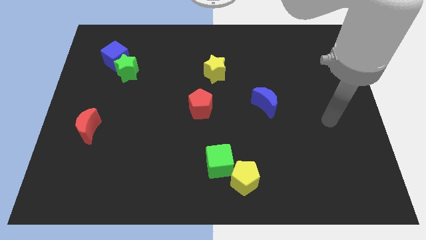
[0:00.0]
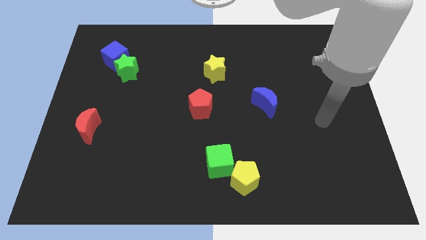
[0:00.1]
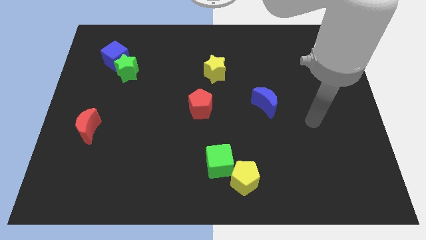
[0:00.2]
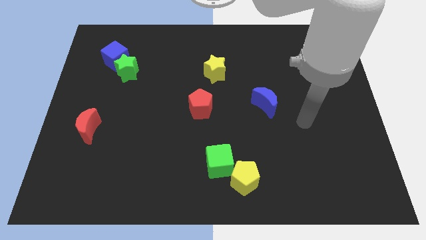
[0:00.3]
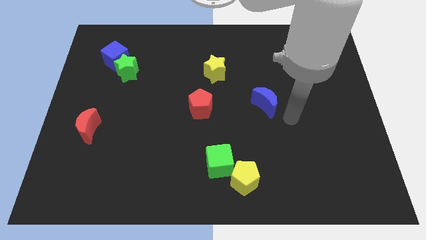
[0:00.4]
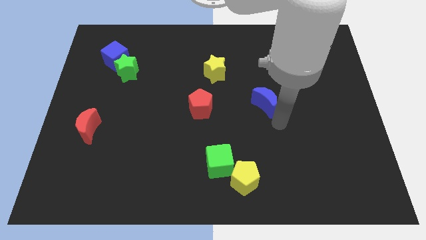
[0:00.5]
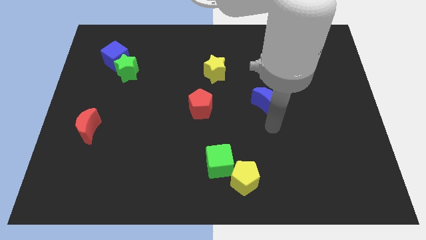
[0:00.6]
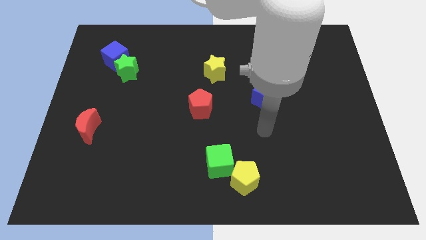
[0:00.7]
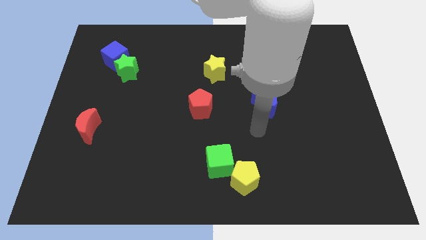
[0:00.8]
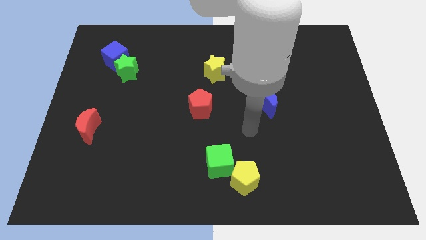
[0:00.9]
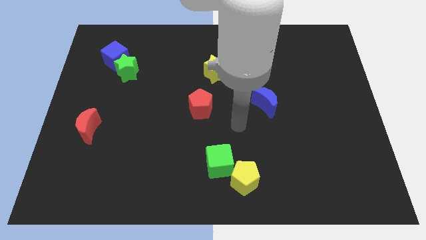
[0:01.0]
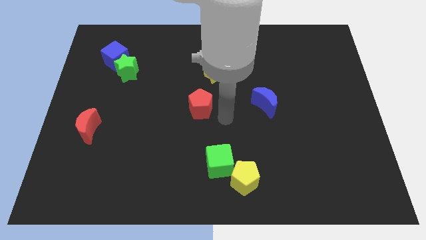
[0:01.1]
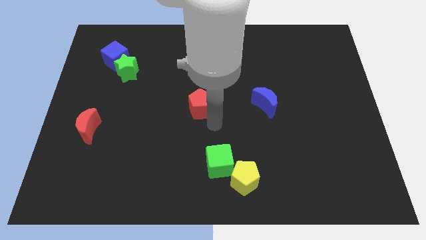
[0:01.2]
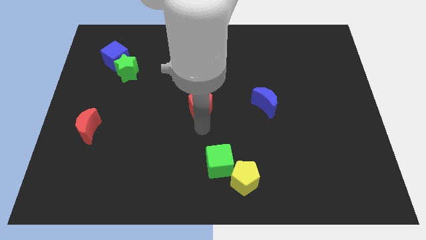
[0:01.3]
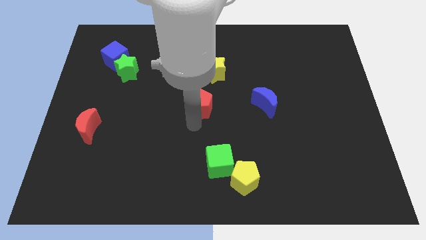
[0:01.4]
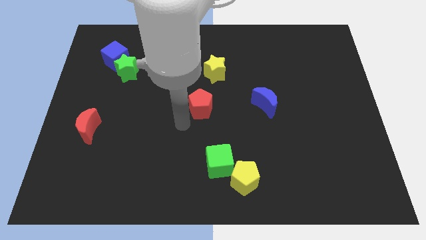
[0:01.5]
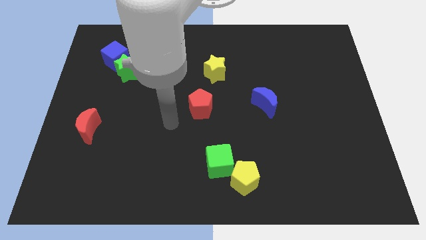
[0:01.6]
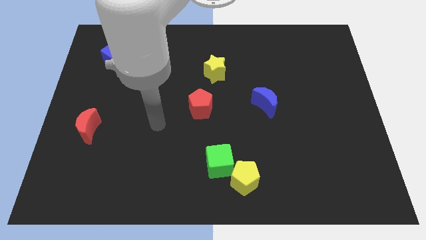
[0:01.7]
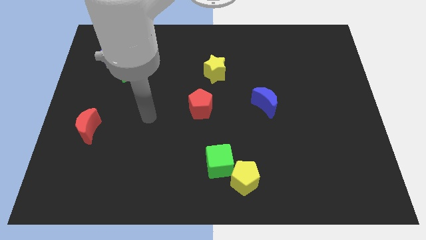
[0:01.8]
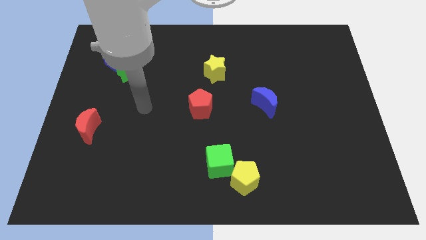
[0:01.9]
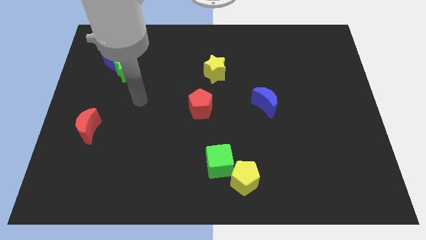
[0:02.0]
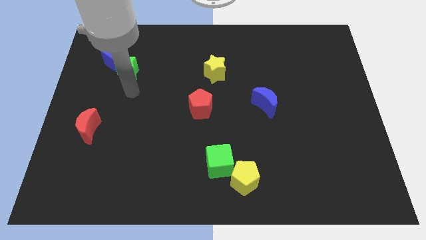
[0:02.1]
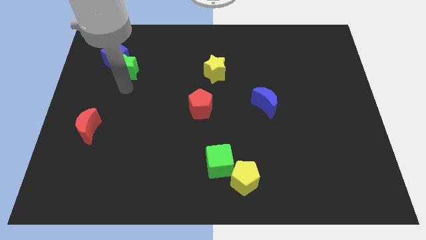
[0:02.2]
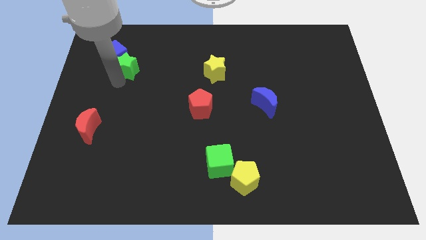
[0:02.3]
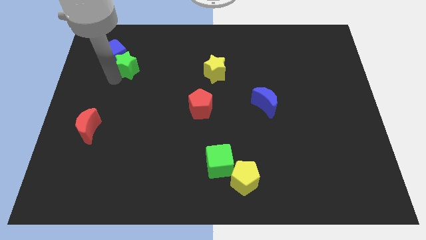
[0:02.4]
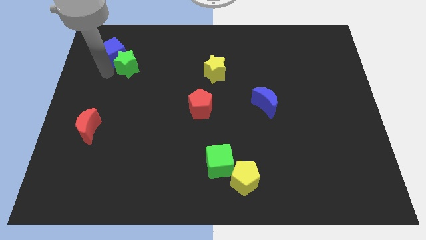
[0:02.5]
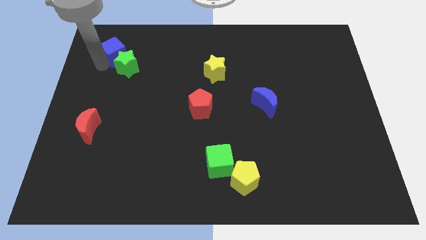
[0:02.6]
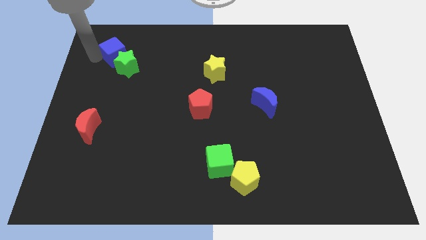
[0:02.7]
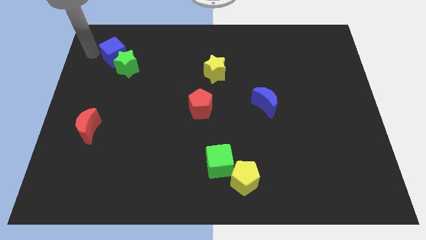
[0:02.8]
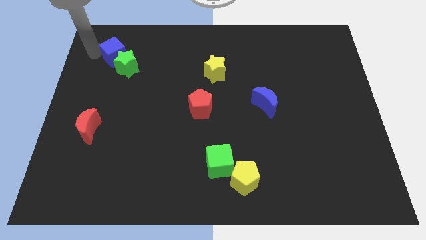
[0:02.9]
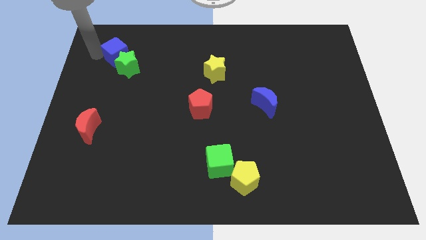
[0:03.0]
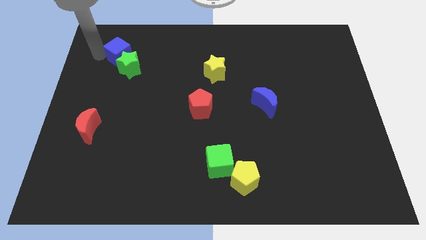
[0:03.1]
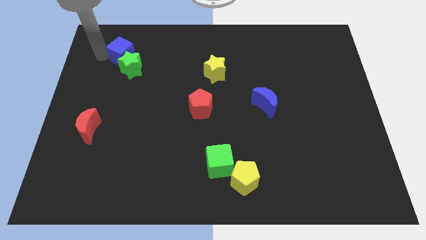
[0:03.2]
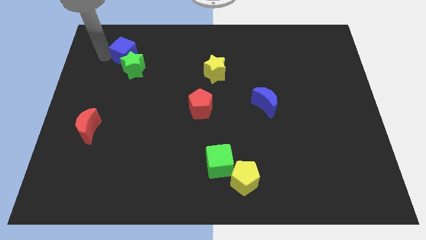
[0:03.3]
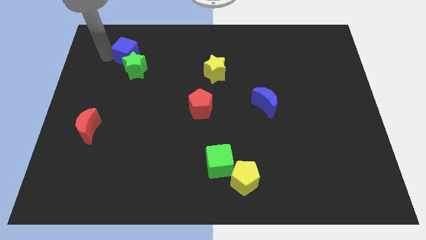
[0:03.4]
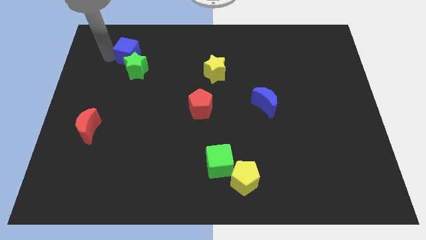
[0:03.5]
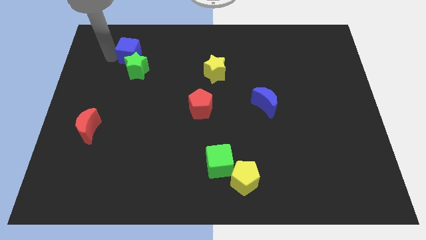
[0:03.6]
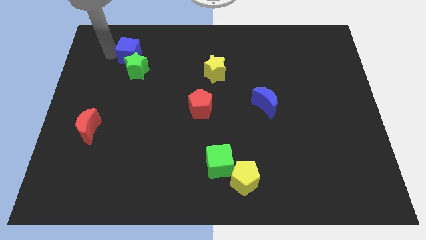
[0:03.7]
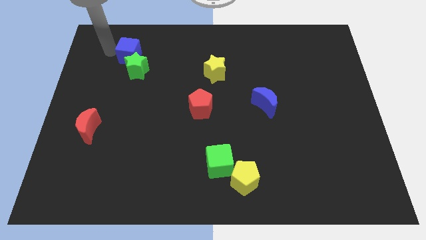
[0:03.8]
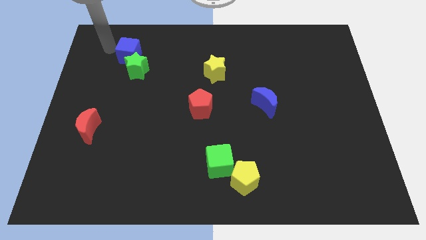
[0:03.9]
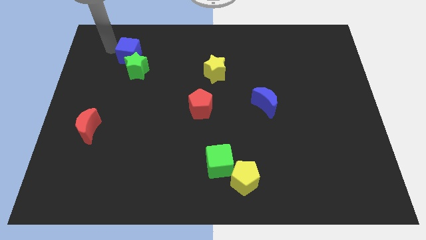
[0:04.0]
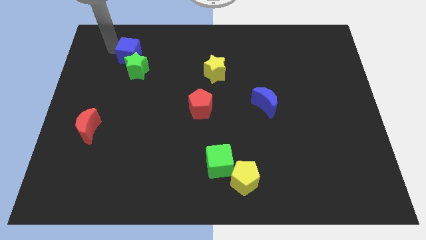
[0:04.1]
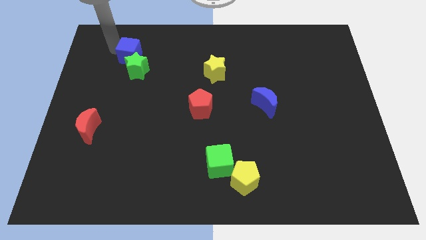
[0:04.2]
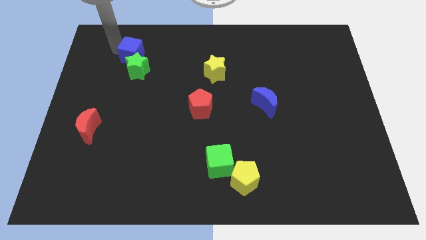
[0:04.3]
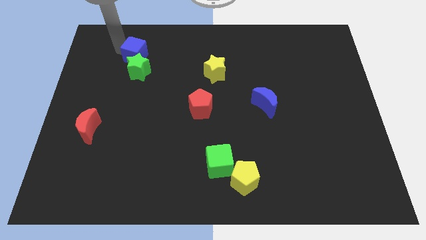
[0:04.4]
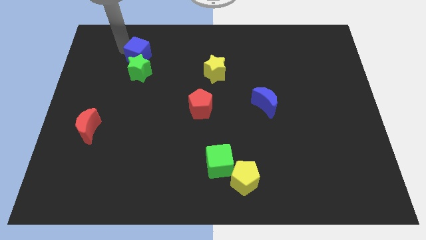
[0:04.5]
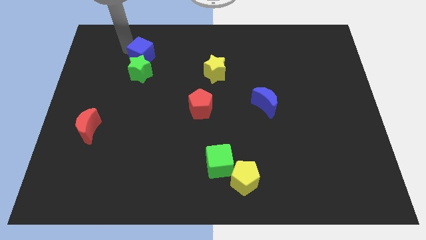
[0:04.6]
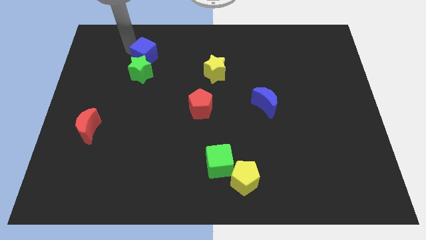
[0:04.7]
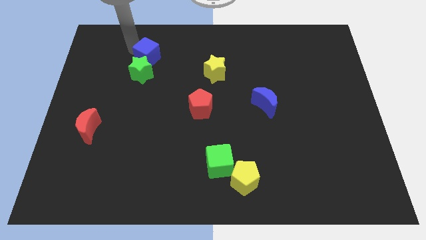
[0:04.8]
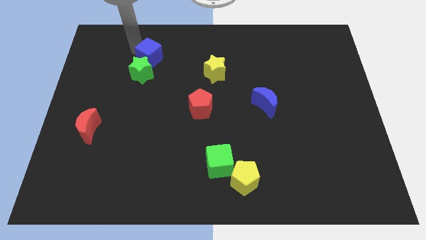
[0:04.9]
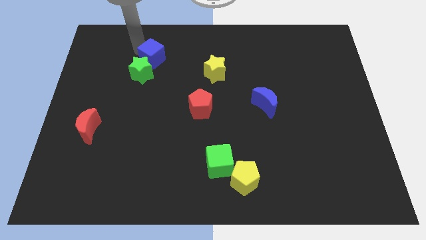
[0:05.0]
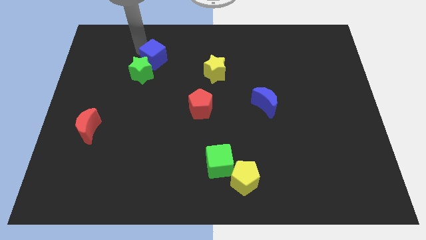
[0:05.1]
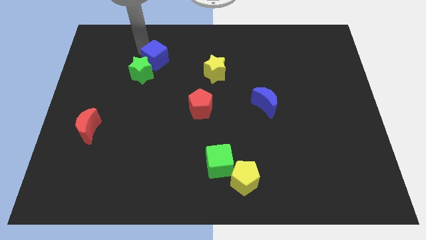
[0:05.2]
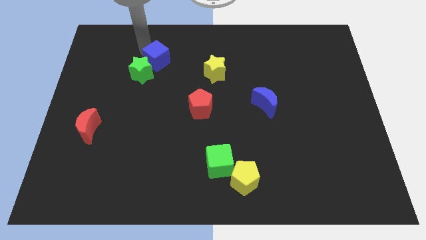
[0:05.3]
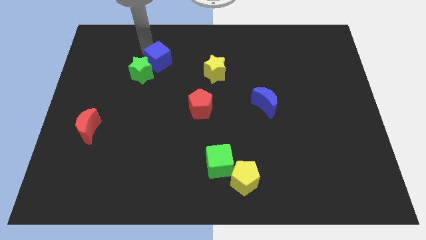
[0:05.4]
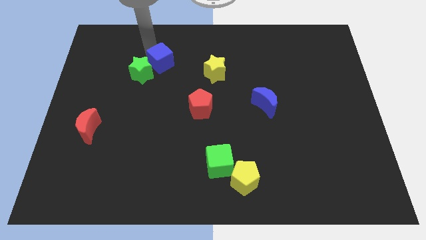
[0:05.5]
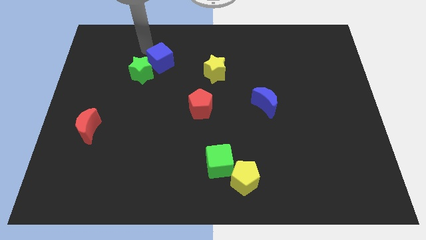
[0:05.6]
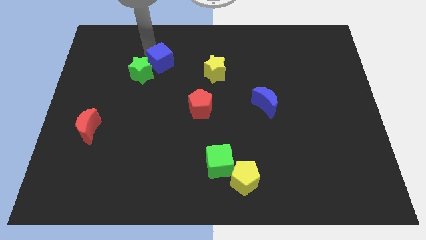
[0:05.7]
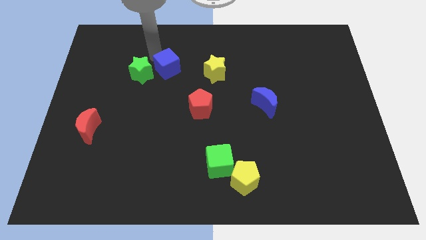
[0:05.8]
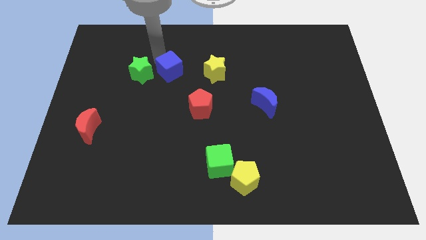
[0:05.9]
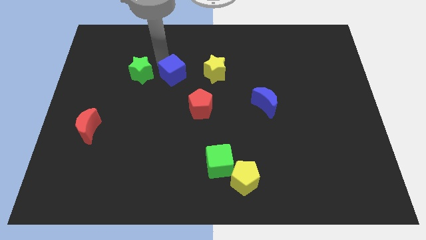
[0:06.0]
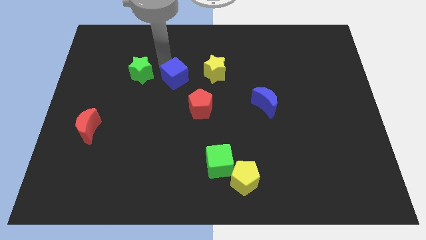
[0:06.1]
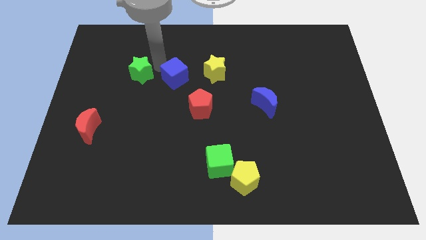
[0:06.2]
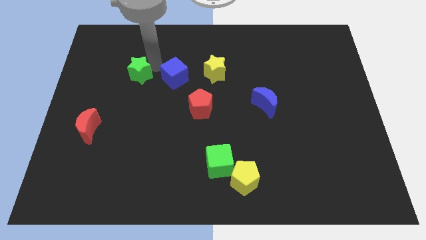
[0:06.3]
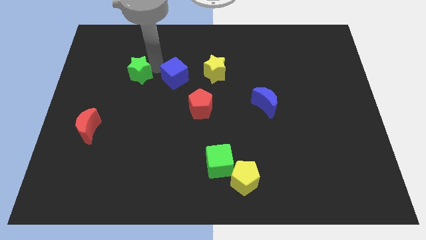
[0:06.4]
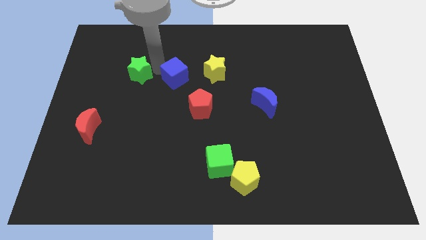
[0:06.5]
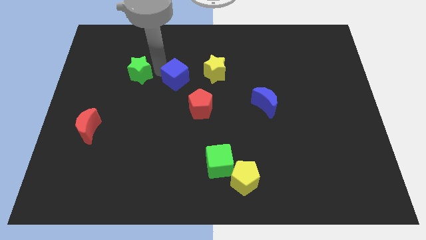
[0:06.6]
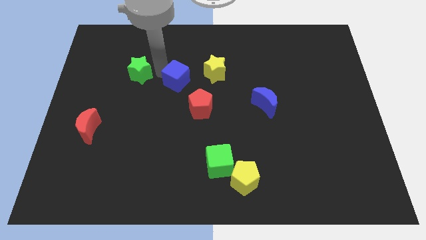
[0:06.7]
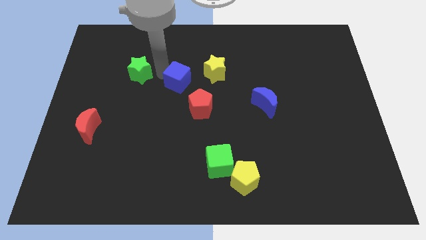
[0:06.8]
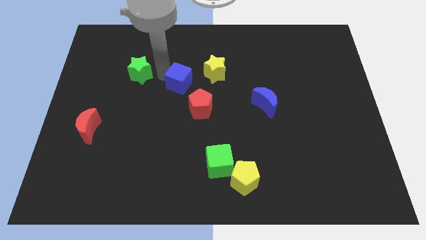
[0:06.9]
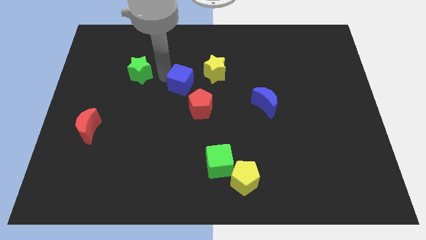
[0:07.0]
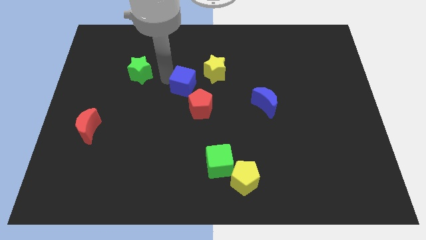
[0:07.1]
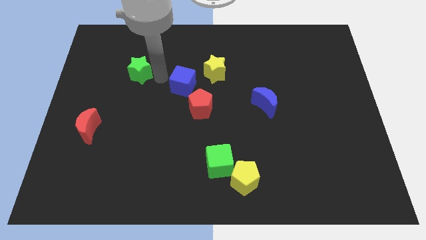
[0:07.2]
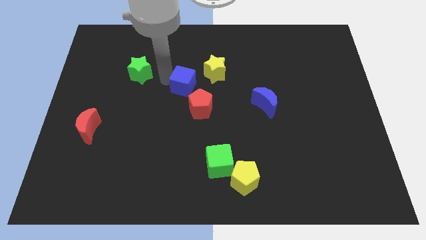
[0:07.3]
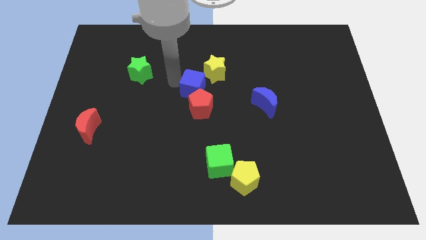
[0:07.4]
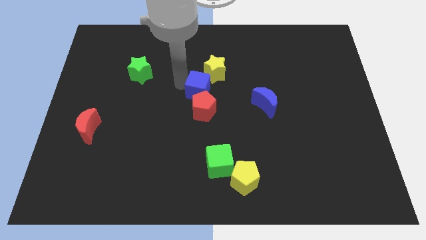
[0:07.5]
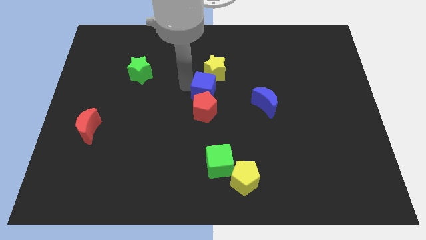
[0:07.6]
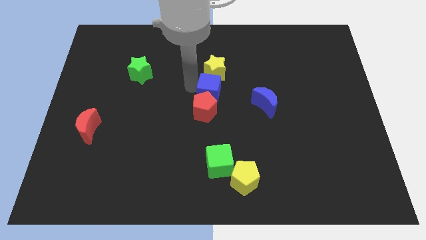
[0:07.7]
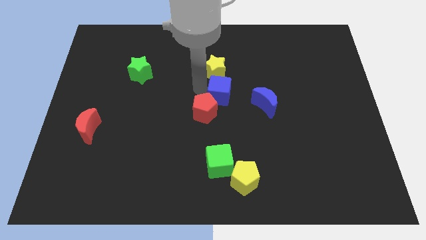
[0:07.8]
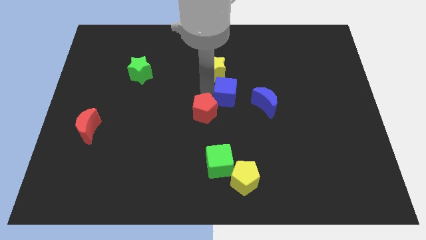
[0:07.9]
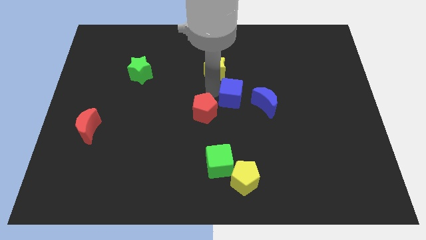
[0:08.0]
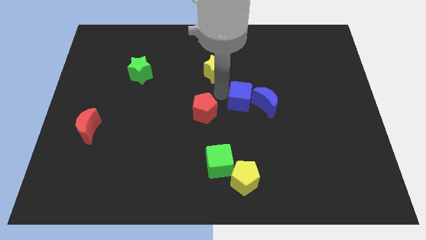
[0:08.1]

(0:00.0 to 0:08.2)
push the blue cube next to the blue moon
